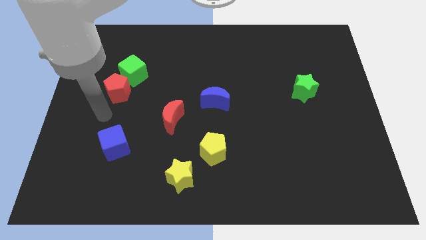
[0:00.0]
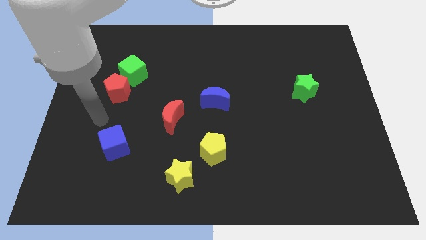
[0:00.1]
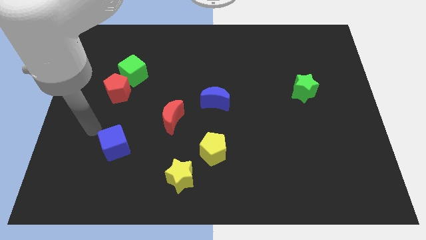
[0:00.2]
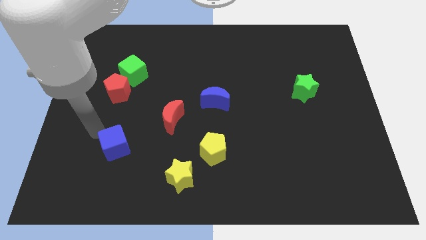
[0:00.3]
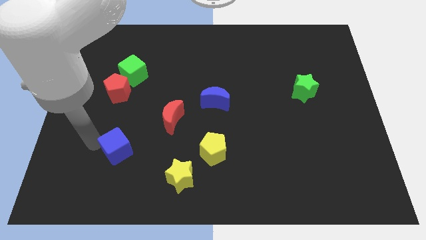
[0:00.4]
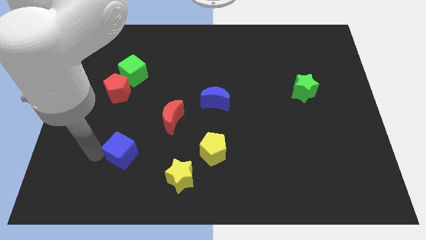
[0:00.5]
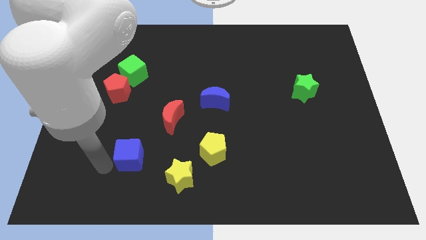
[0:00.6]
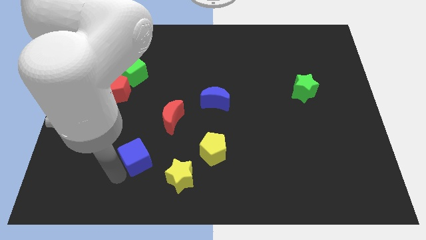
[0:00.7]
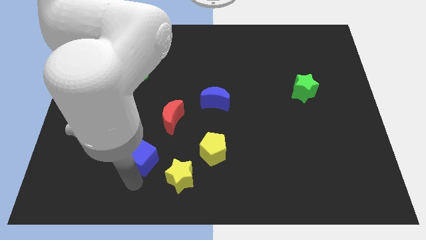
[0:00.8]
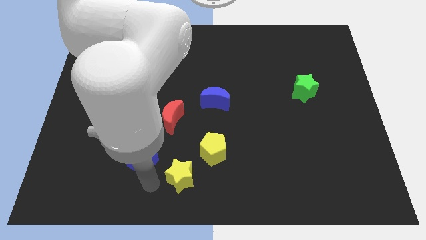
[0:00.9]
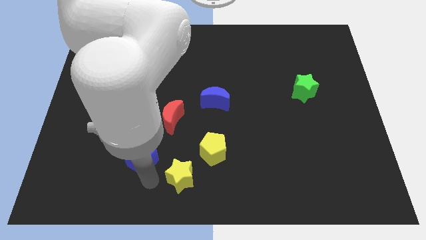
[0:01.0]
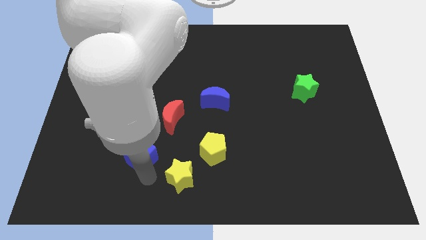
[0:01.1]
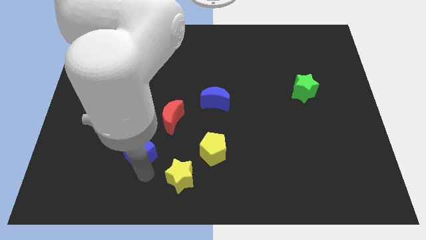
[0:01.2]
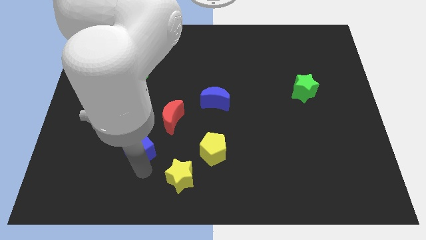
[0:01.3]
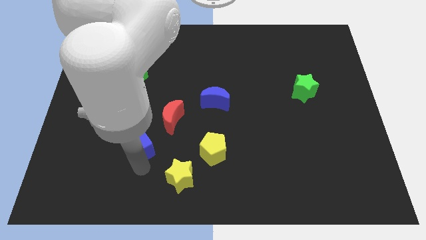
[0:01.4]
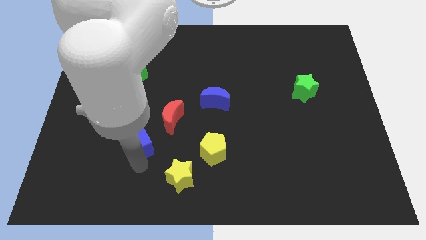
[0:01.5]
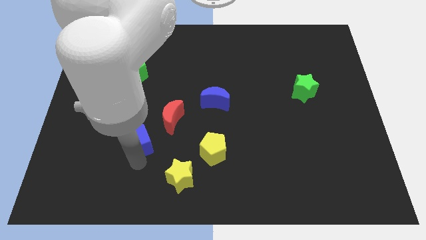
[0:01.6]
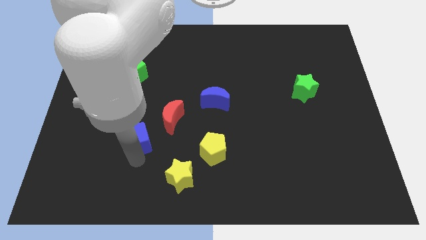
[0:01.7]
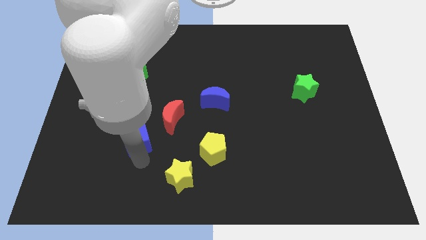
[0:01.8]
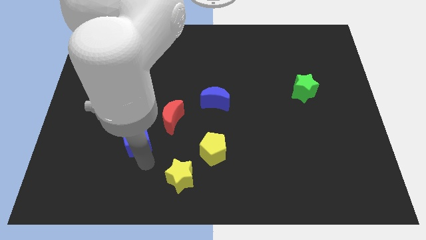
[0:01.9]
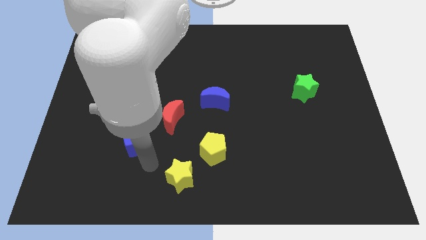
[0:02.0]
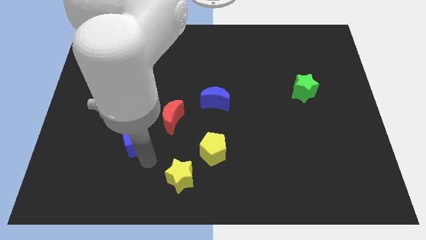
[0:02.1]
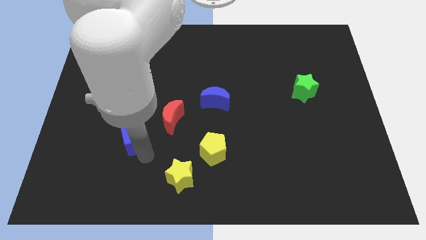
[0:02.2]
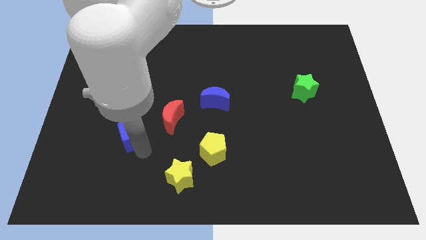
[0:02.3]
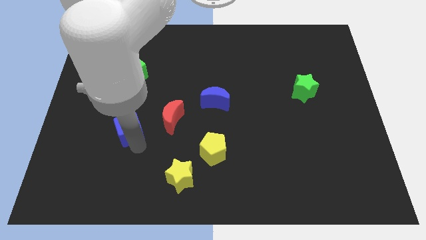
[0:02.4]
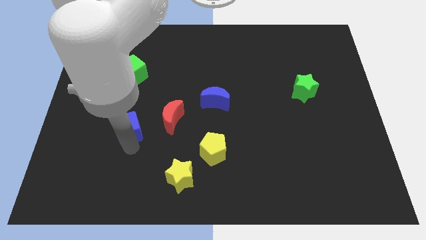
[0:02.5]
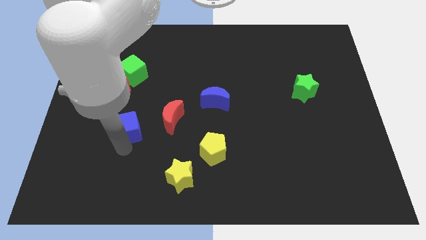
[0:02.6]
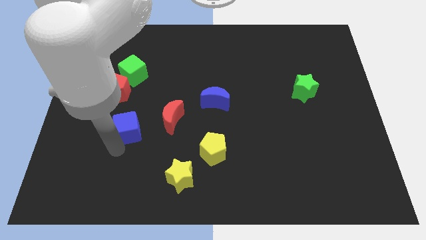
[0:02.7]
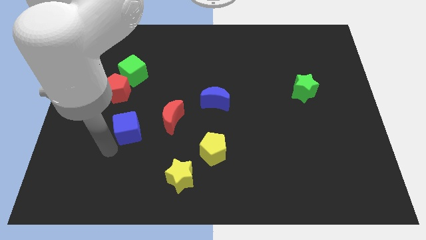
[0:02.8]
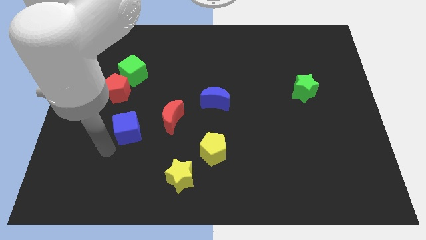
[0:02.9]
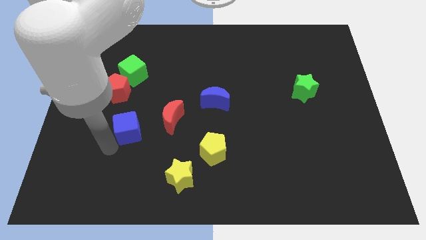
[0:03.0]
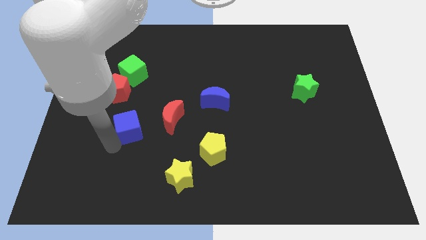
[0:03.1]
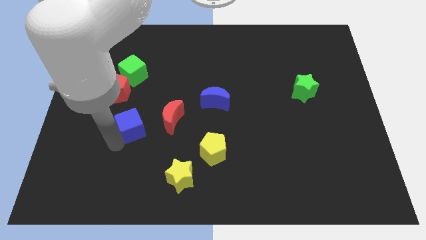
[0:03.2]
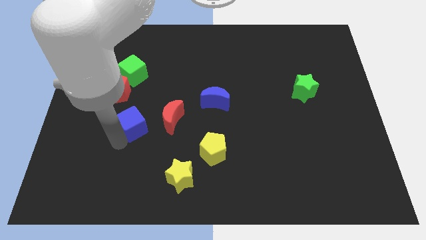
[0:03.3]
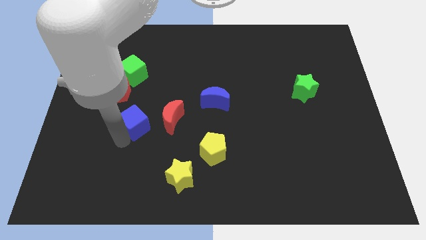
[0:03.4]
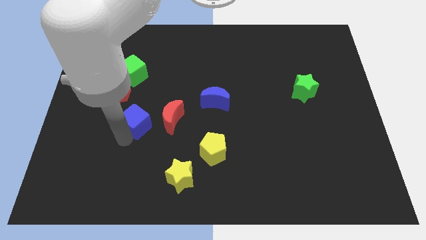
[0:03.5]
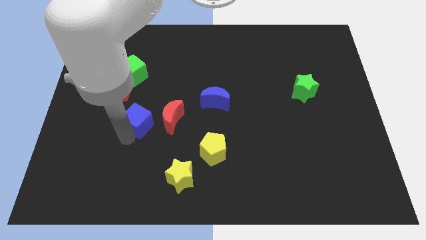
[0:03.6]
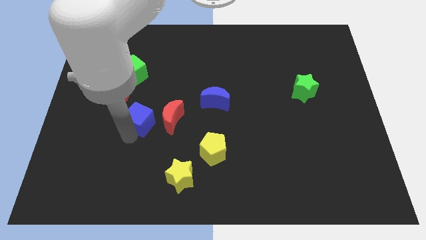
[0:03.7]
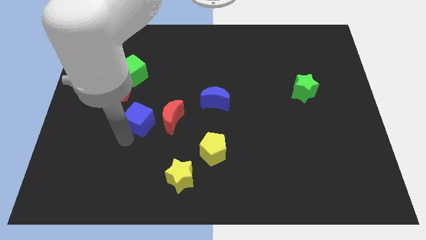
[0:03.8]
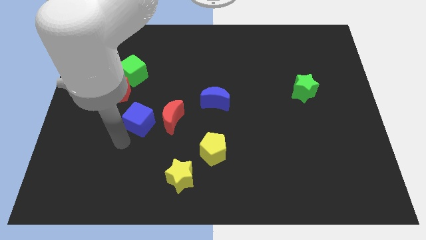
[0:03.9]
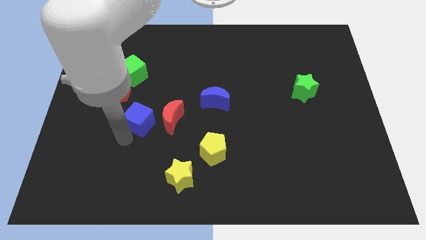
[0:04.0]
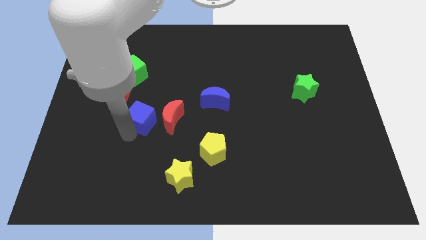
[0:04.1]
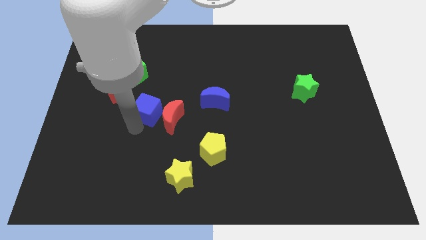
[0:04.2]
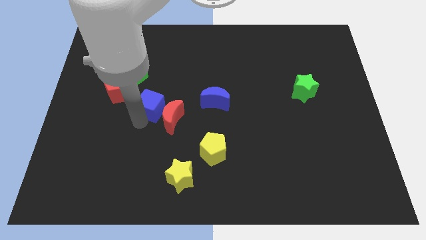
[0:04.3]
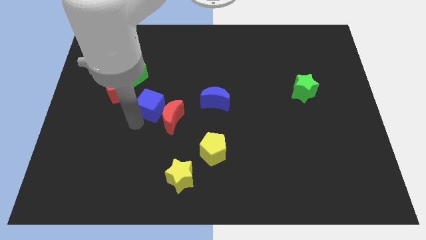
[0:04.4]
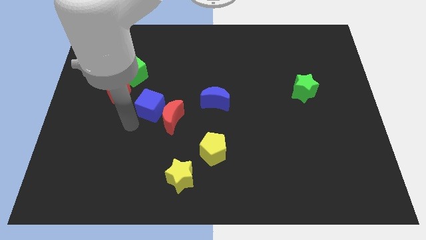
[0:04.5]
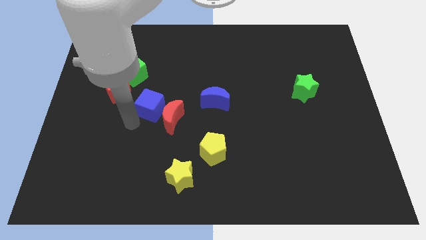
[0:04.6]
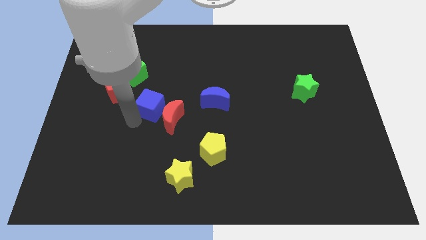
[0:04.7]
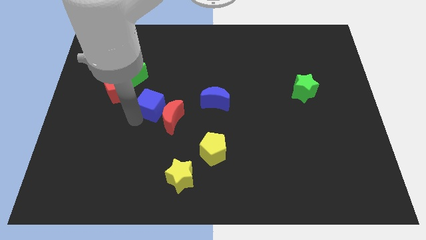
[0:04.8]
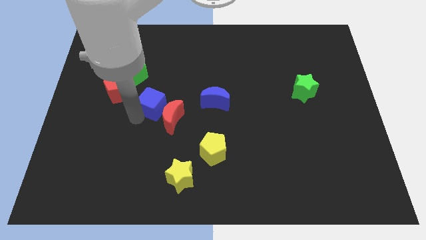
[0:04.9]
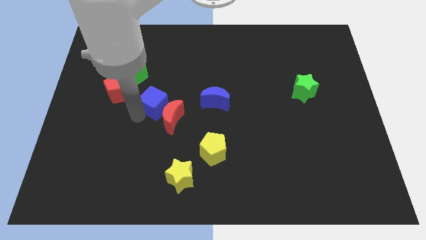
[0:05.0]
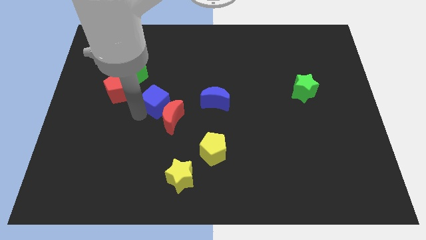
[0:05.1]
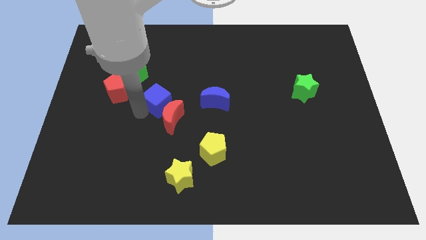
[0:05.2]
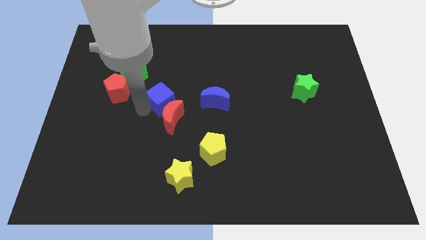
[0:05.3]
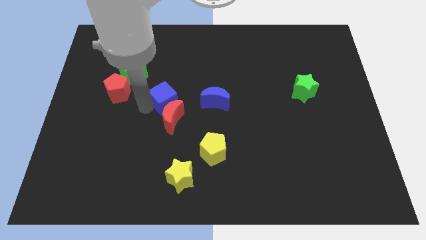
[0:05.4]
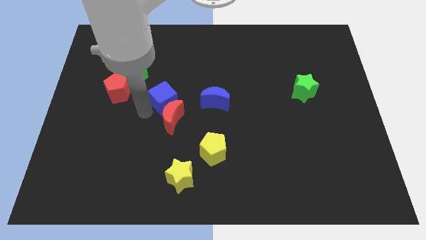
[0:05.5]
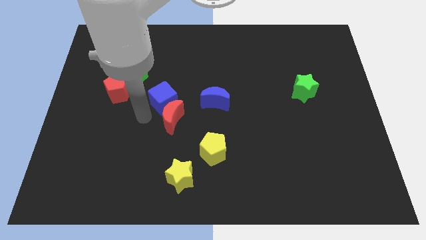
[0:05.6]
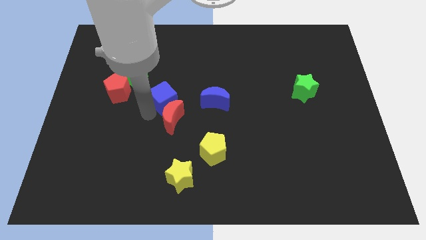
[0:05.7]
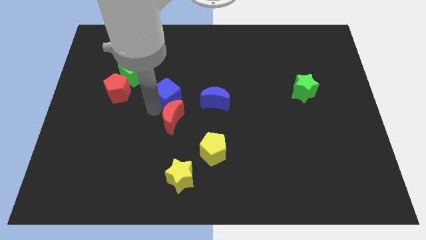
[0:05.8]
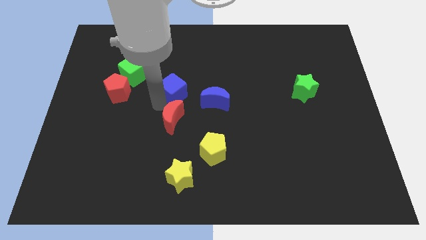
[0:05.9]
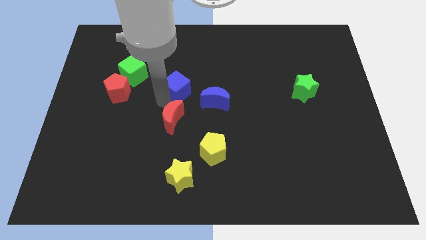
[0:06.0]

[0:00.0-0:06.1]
move the blue cube diagonally upwards and right

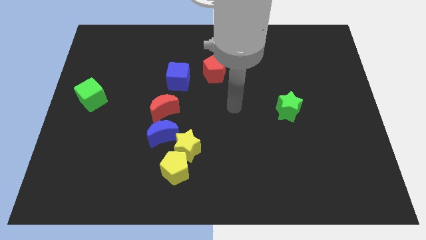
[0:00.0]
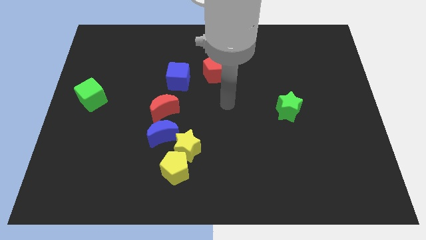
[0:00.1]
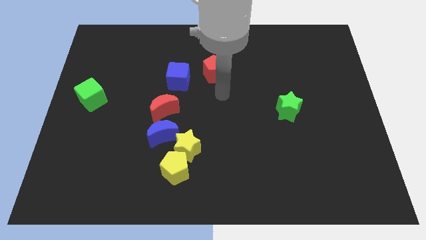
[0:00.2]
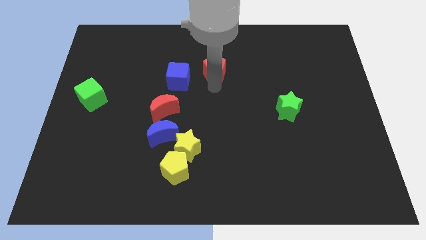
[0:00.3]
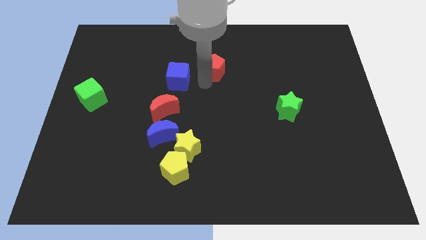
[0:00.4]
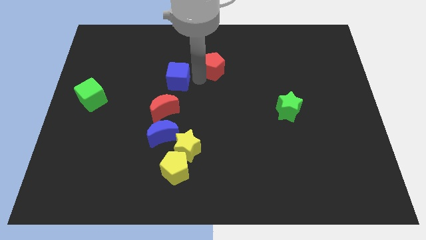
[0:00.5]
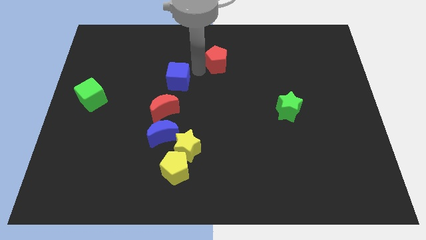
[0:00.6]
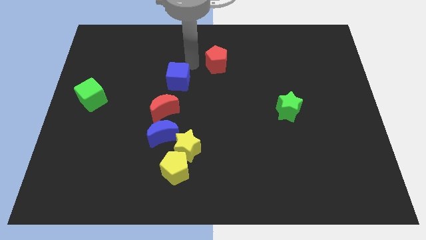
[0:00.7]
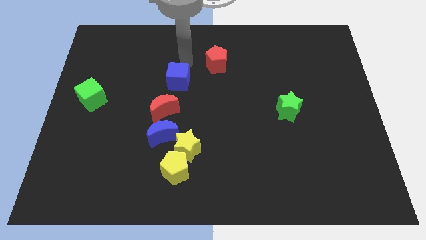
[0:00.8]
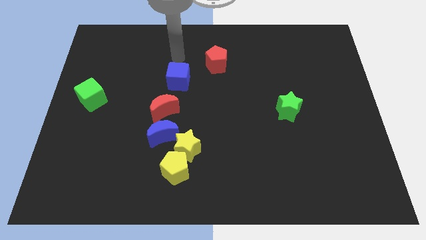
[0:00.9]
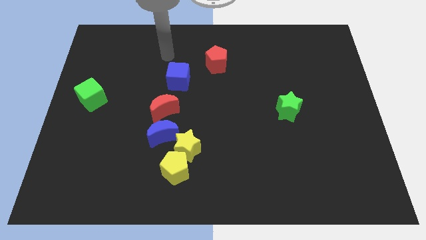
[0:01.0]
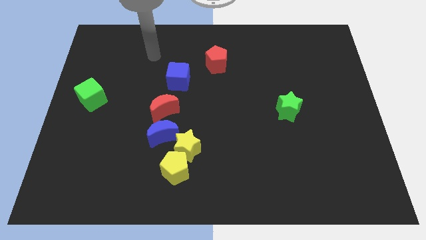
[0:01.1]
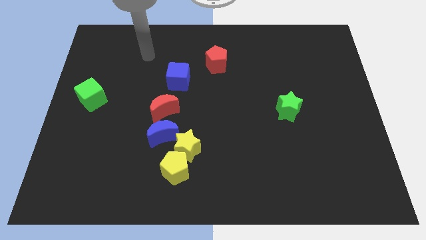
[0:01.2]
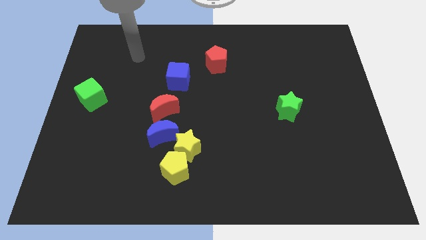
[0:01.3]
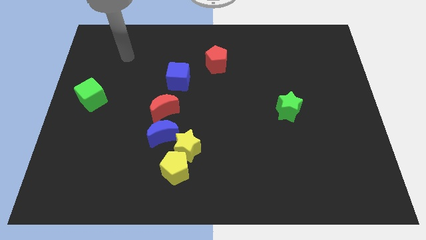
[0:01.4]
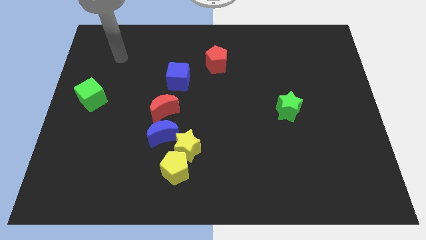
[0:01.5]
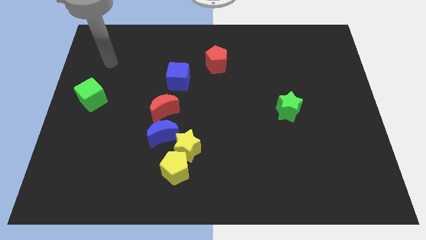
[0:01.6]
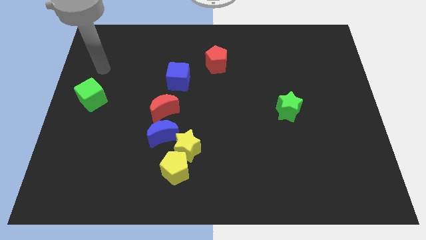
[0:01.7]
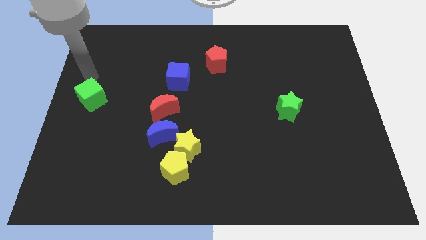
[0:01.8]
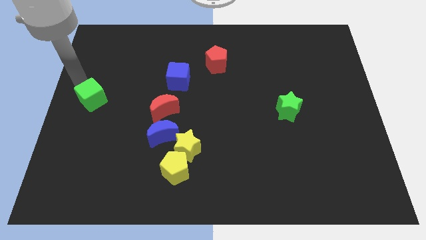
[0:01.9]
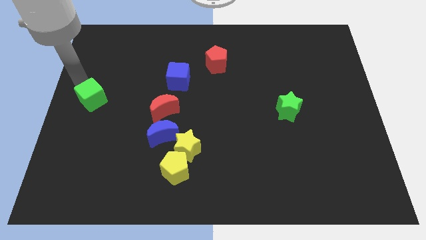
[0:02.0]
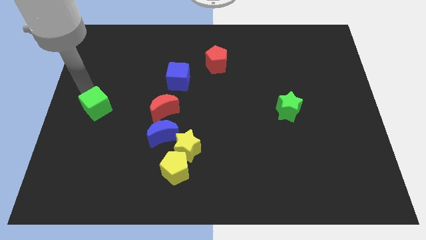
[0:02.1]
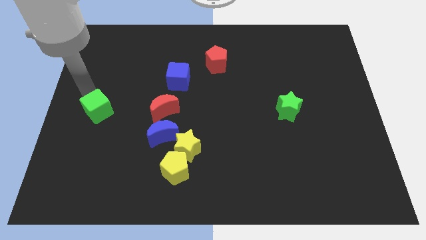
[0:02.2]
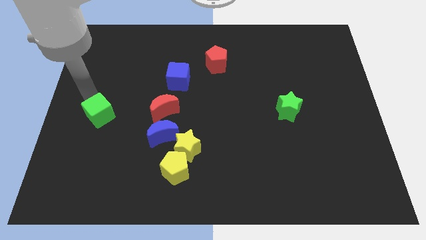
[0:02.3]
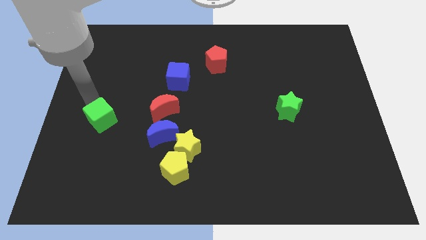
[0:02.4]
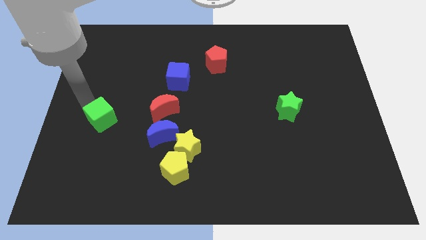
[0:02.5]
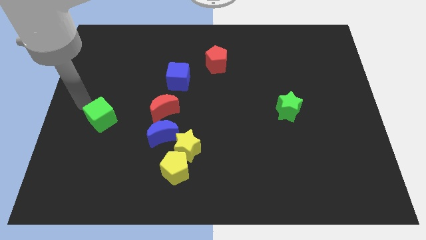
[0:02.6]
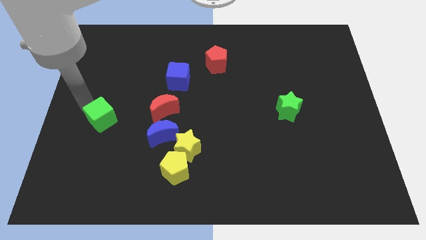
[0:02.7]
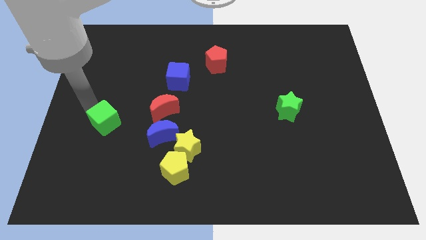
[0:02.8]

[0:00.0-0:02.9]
slide the green cube somewhat diagonally down and right
